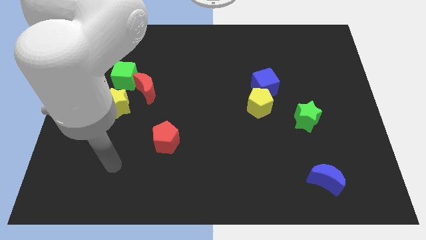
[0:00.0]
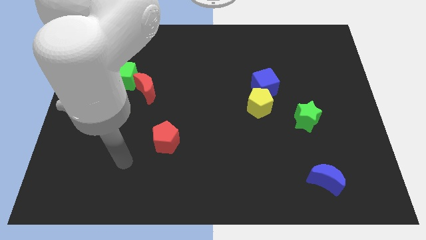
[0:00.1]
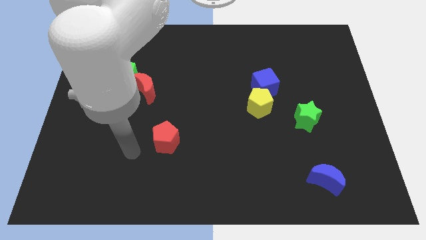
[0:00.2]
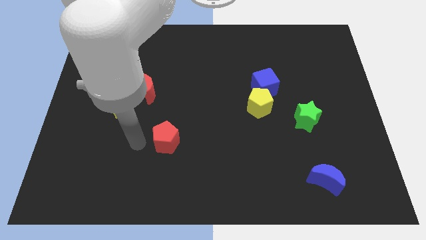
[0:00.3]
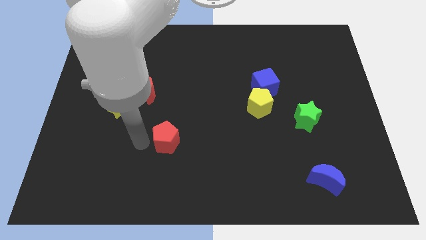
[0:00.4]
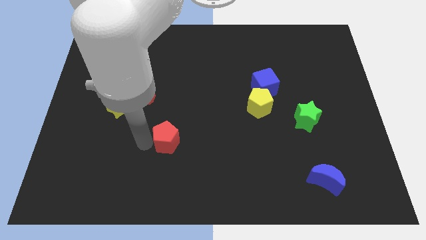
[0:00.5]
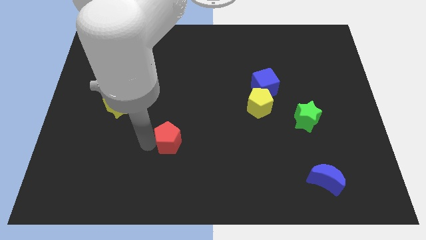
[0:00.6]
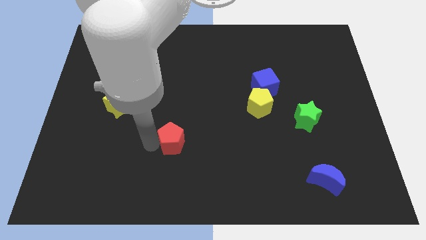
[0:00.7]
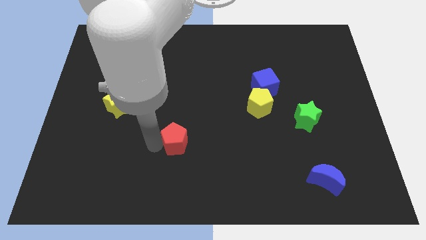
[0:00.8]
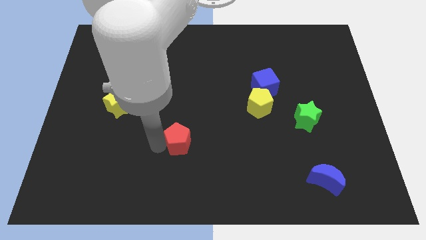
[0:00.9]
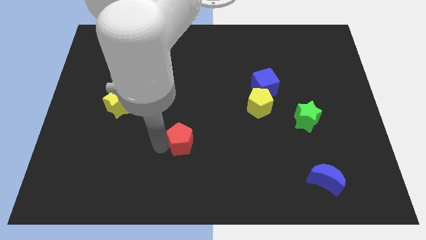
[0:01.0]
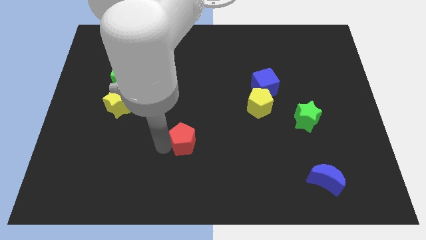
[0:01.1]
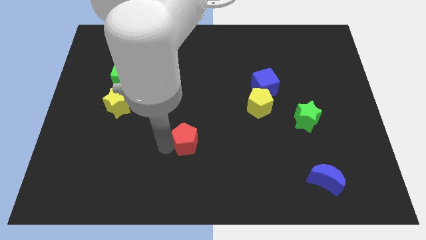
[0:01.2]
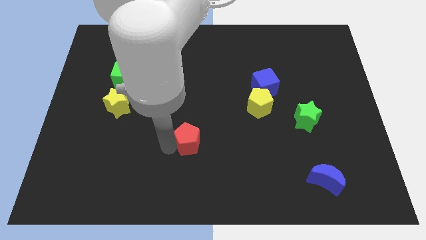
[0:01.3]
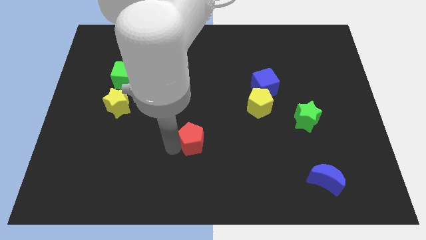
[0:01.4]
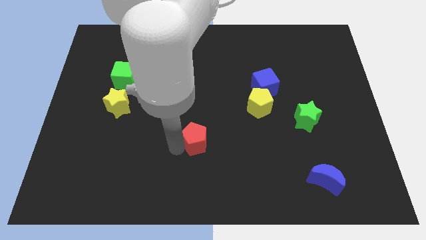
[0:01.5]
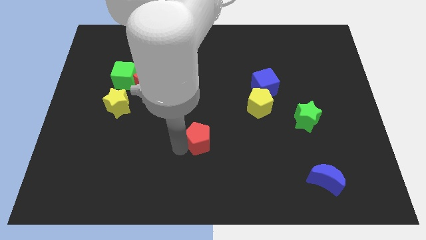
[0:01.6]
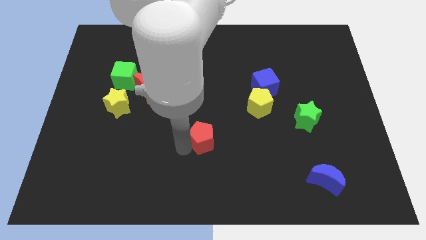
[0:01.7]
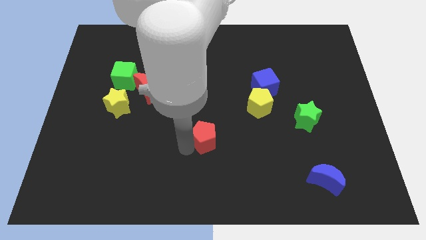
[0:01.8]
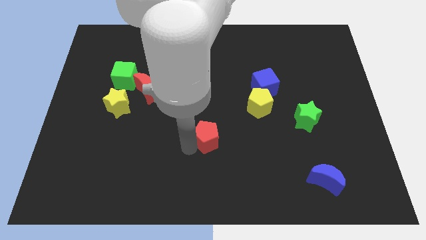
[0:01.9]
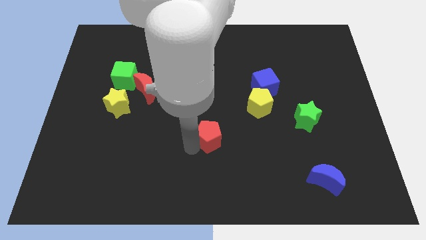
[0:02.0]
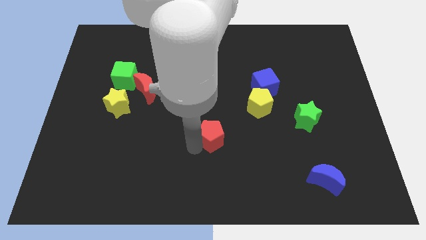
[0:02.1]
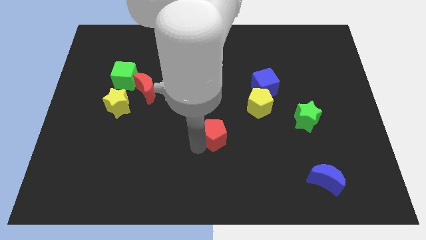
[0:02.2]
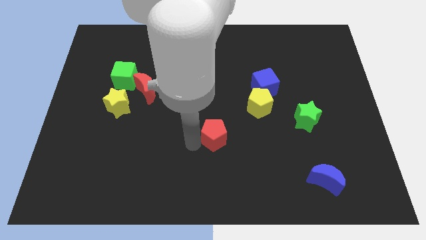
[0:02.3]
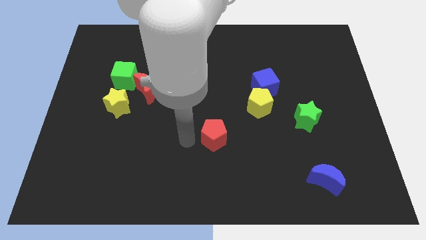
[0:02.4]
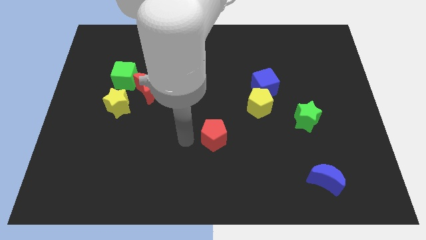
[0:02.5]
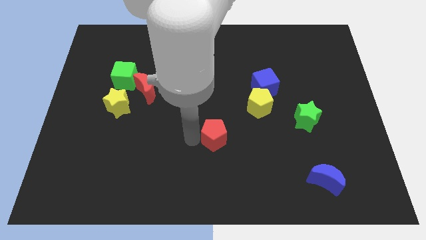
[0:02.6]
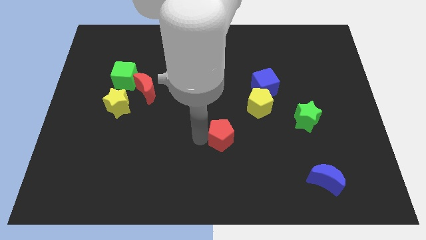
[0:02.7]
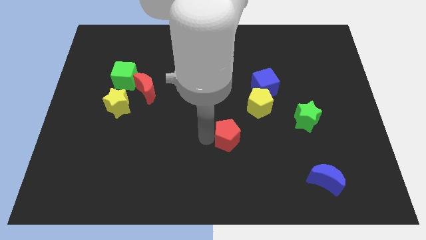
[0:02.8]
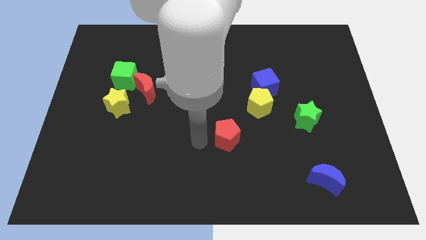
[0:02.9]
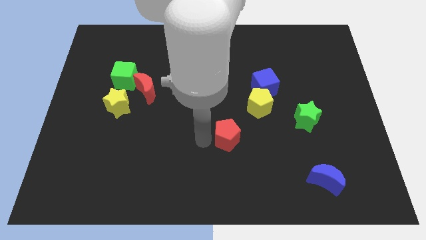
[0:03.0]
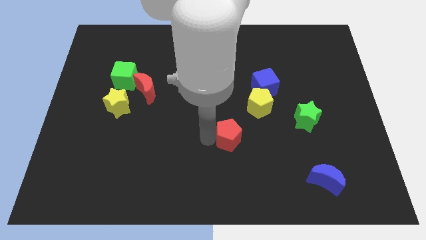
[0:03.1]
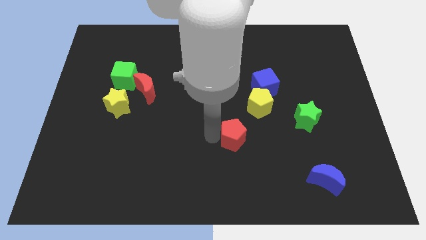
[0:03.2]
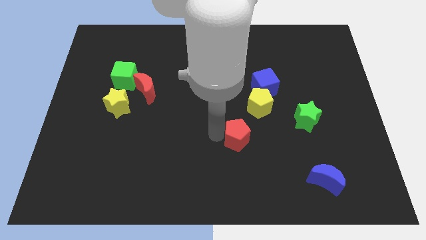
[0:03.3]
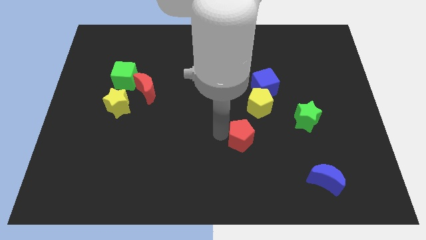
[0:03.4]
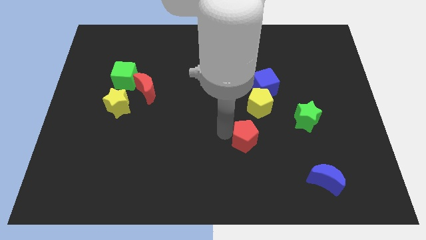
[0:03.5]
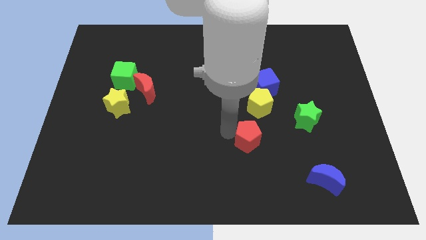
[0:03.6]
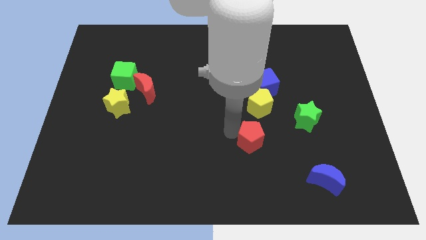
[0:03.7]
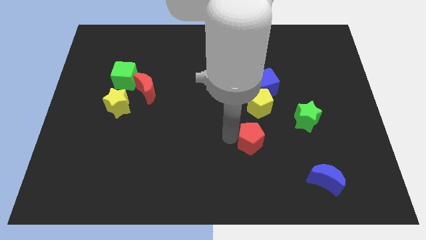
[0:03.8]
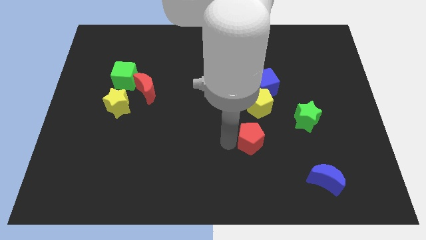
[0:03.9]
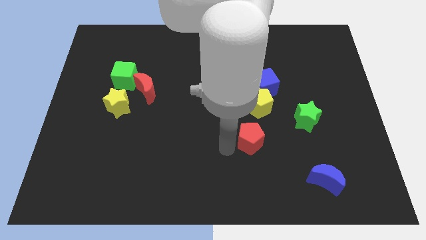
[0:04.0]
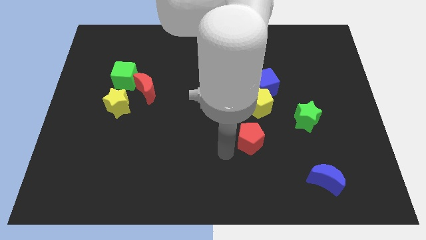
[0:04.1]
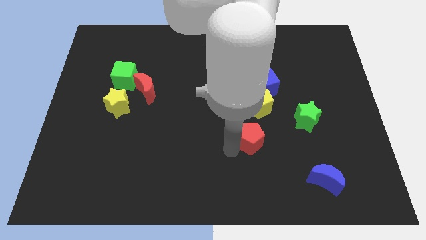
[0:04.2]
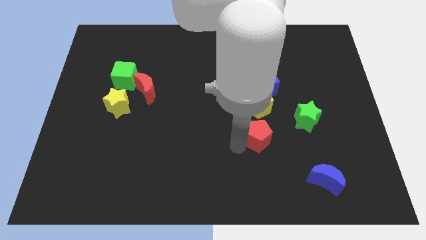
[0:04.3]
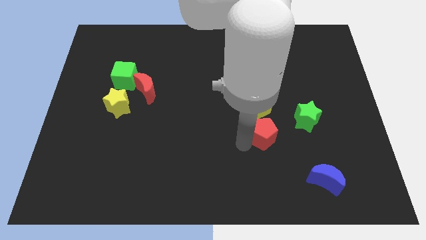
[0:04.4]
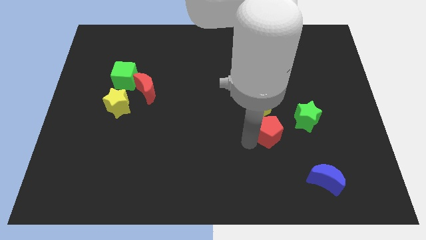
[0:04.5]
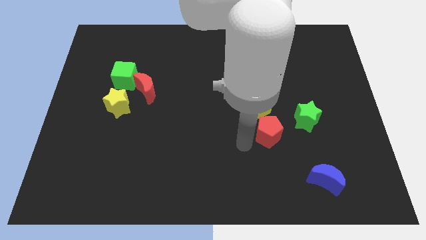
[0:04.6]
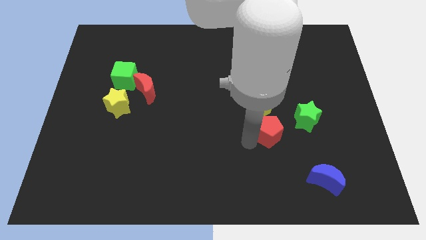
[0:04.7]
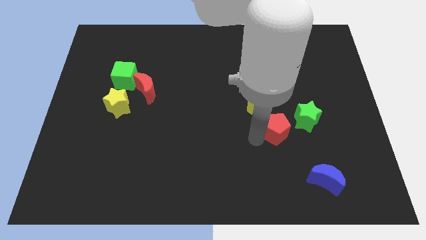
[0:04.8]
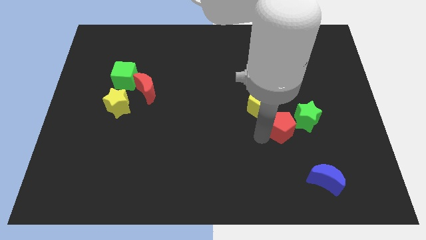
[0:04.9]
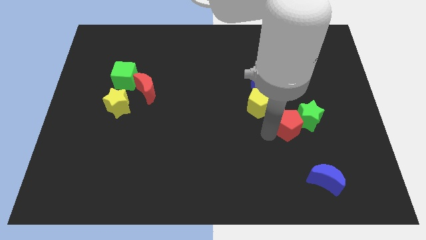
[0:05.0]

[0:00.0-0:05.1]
put the red pentagon next to the green star

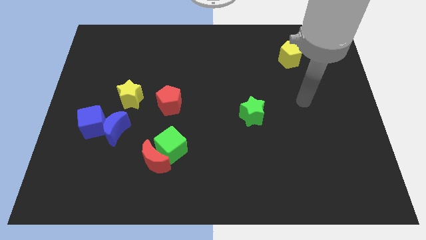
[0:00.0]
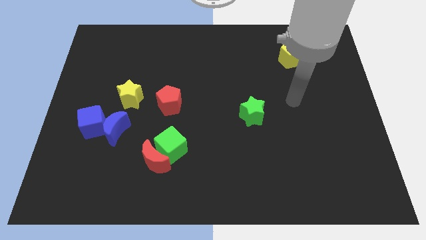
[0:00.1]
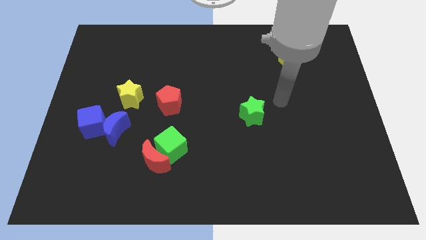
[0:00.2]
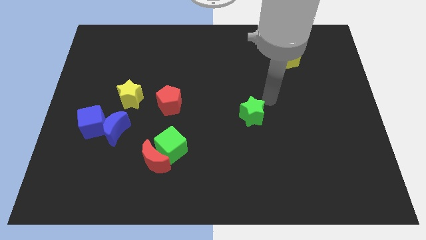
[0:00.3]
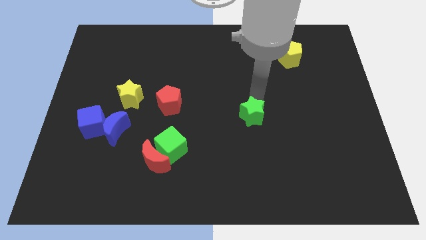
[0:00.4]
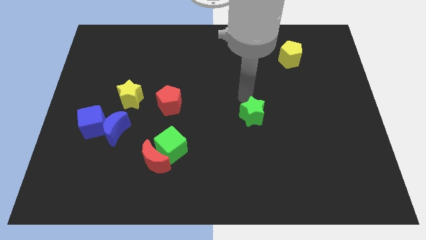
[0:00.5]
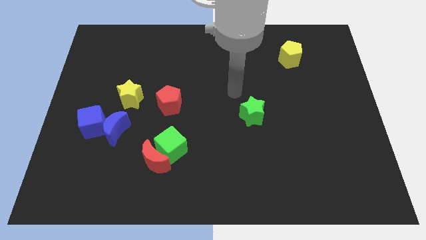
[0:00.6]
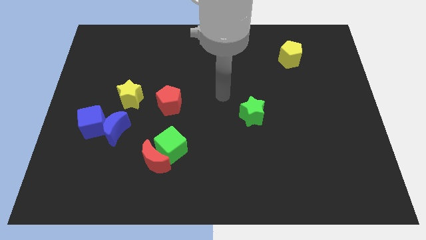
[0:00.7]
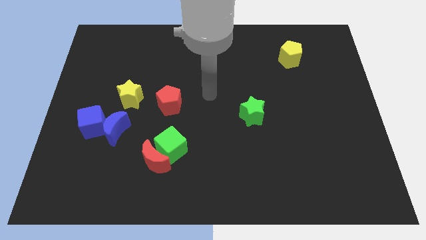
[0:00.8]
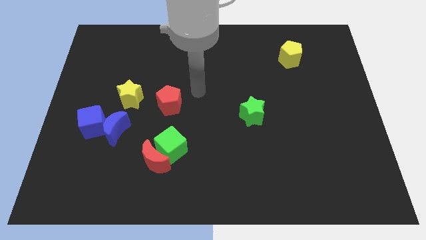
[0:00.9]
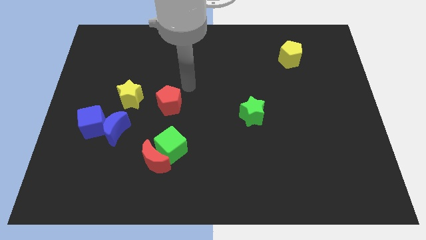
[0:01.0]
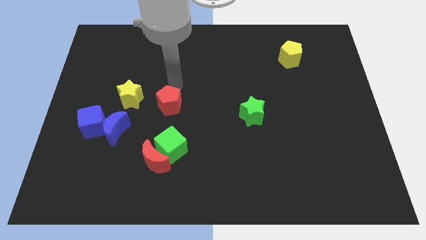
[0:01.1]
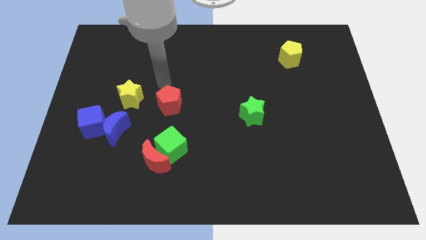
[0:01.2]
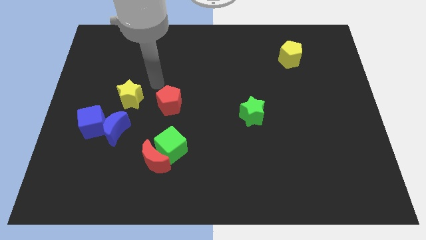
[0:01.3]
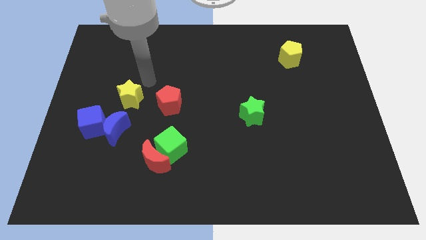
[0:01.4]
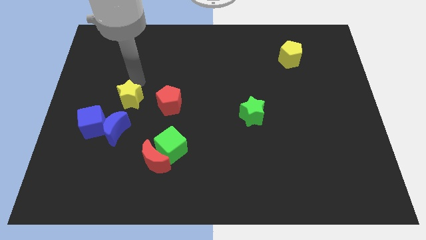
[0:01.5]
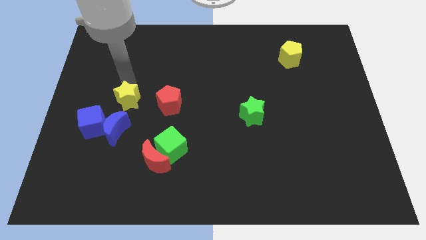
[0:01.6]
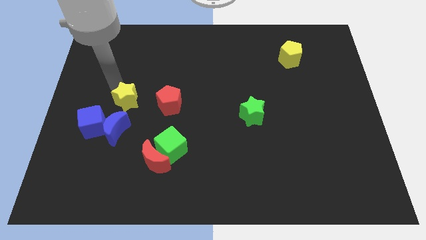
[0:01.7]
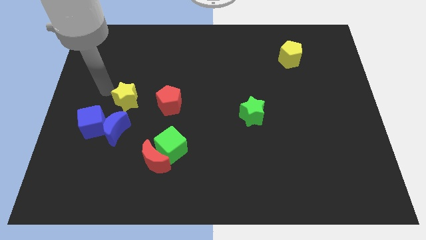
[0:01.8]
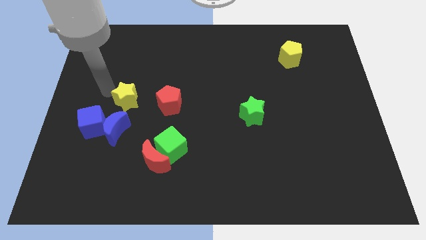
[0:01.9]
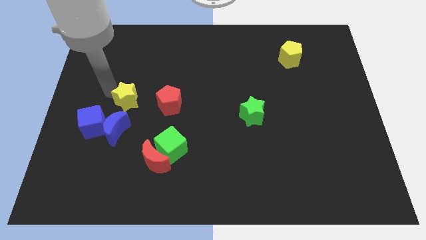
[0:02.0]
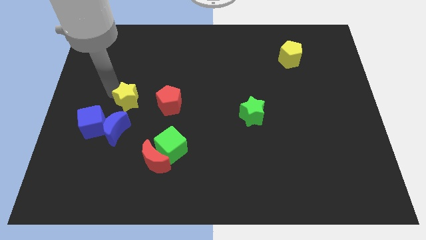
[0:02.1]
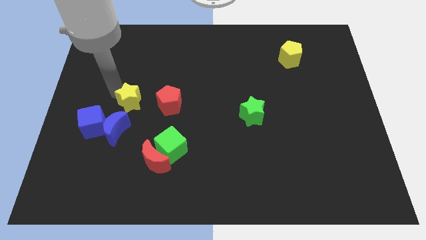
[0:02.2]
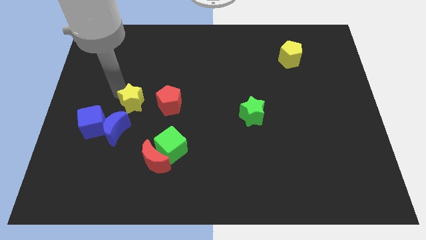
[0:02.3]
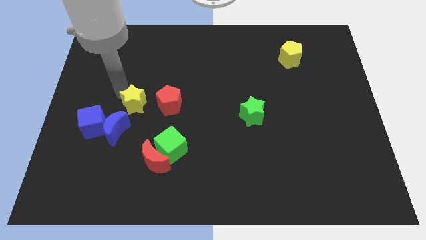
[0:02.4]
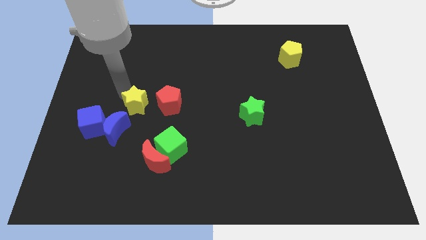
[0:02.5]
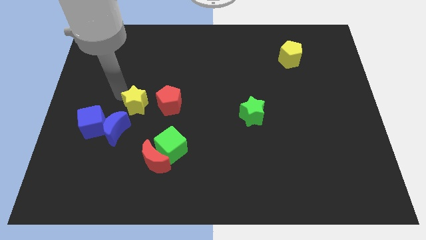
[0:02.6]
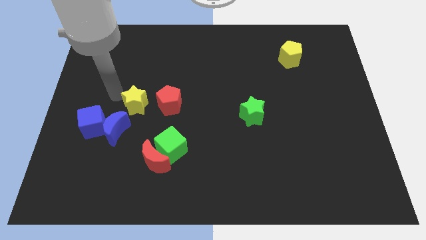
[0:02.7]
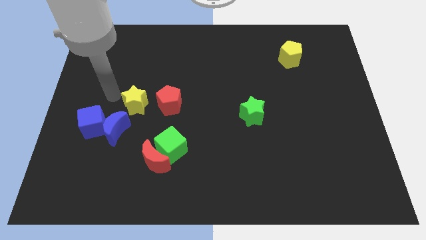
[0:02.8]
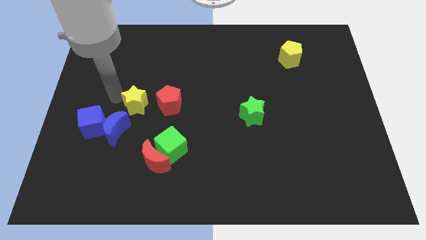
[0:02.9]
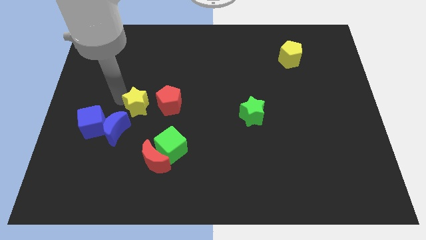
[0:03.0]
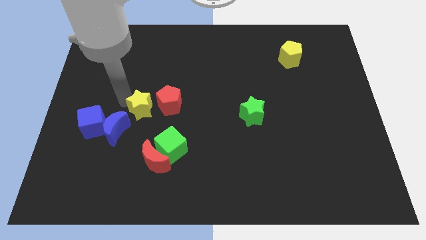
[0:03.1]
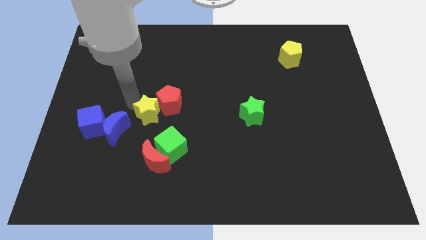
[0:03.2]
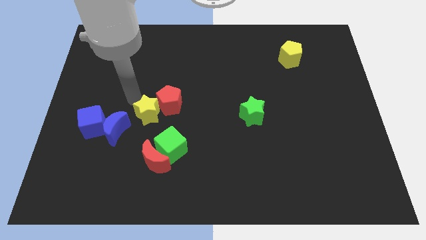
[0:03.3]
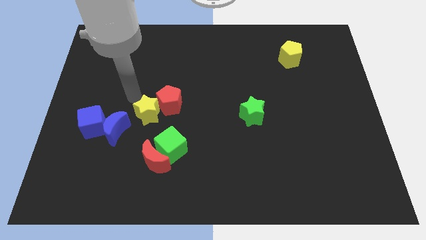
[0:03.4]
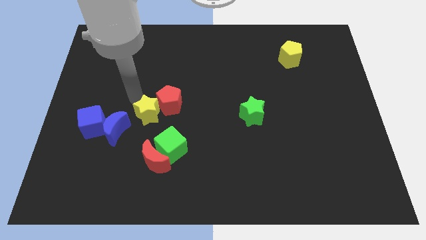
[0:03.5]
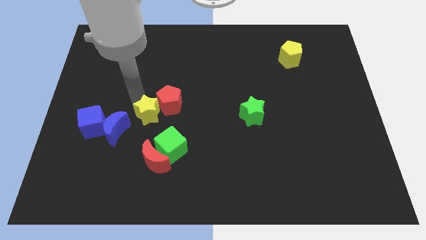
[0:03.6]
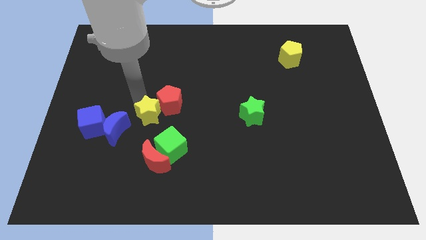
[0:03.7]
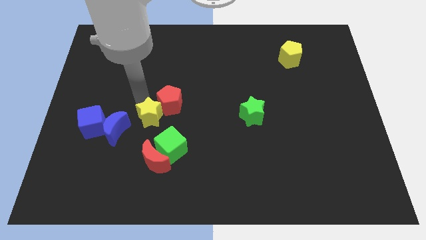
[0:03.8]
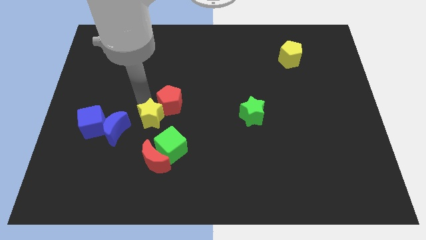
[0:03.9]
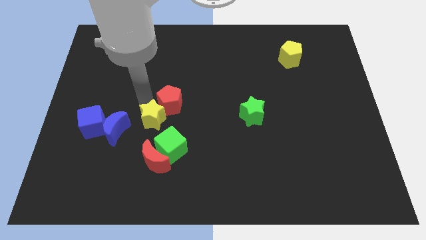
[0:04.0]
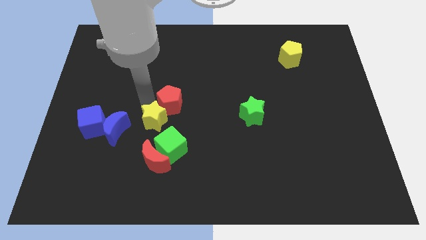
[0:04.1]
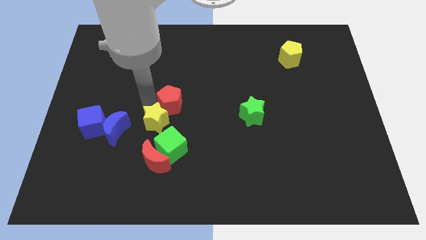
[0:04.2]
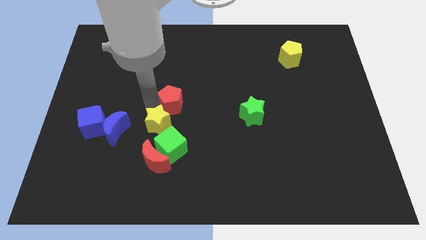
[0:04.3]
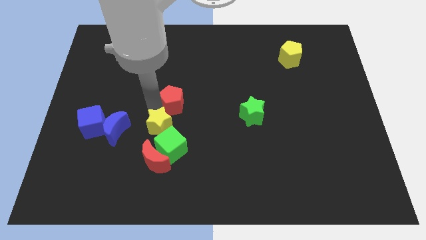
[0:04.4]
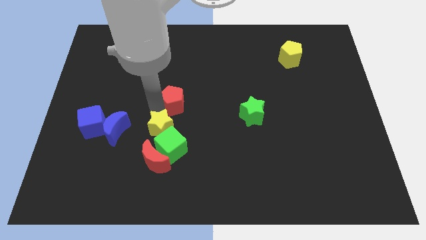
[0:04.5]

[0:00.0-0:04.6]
move the yellow star close to the green cube
